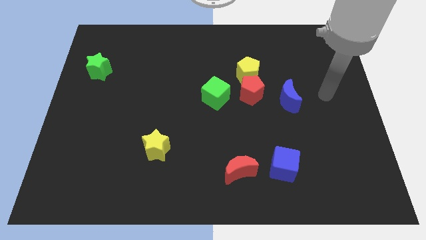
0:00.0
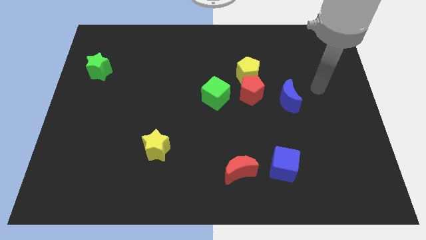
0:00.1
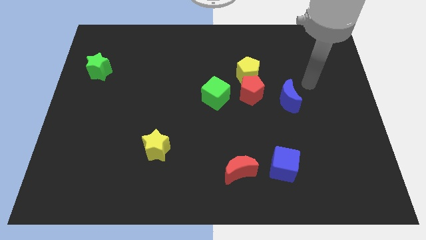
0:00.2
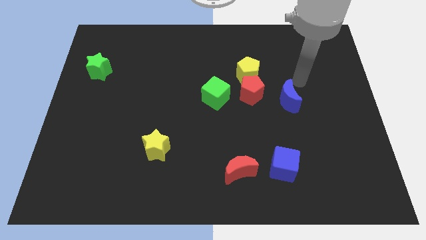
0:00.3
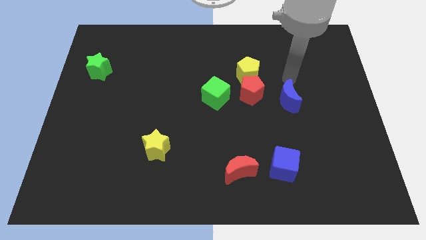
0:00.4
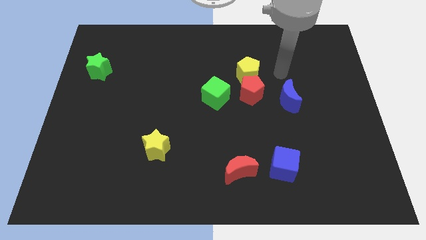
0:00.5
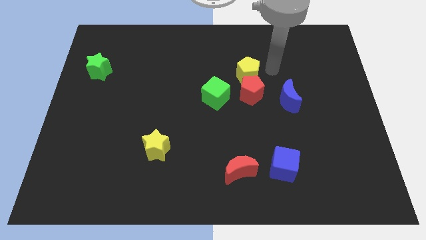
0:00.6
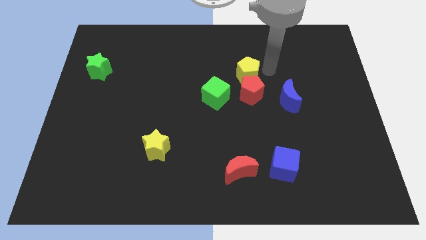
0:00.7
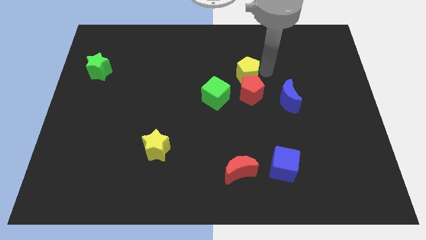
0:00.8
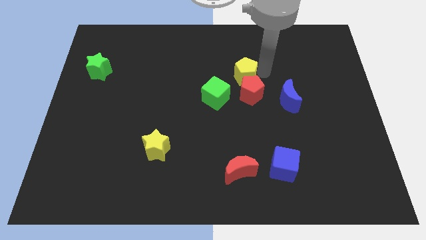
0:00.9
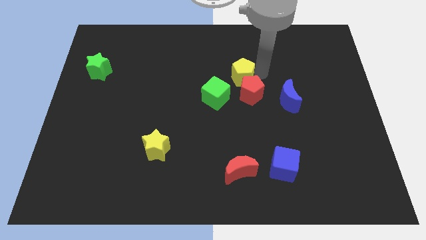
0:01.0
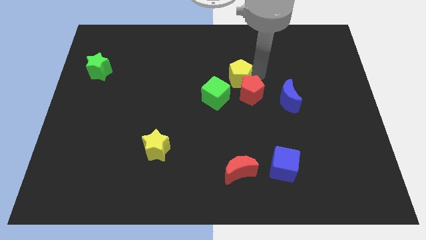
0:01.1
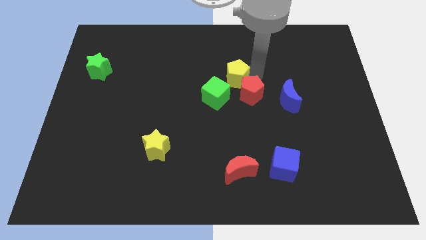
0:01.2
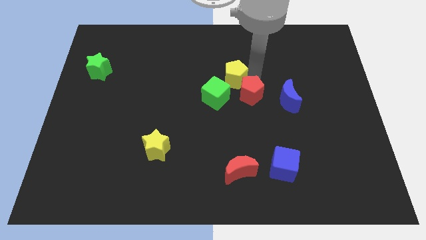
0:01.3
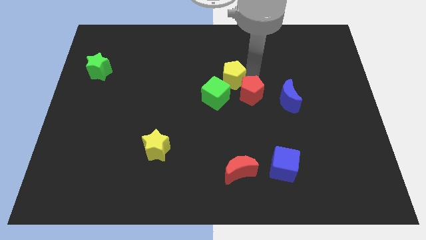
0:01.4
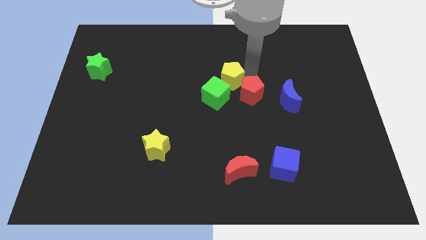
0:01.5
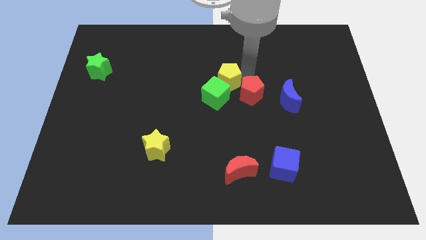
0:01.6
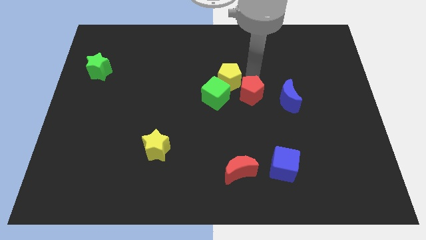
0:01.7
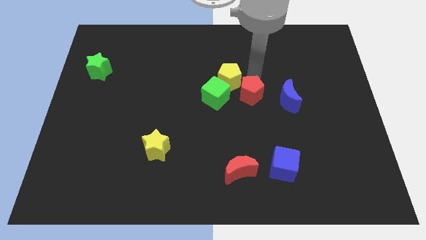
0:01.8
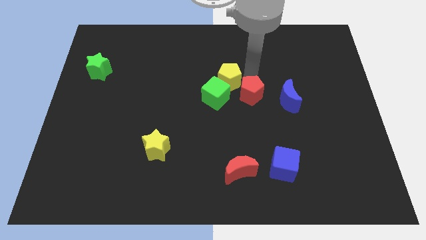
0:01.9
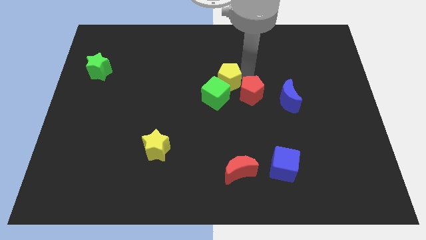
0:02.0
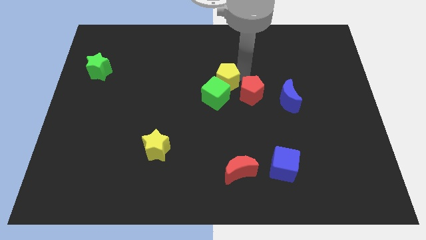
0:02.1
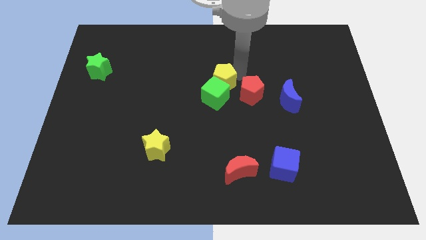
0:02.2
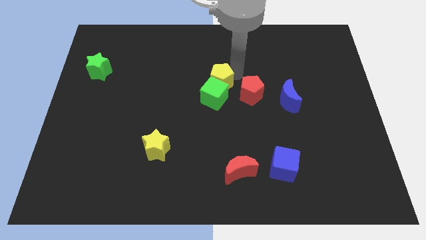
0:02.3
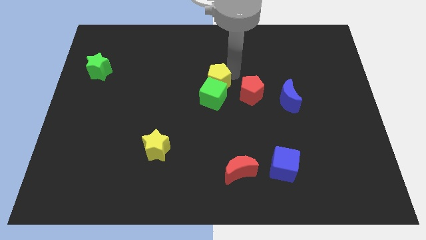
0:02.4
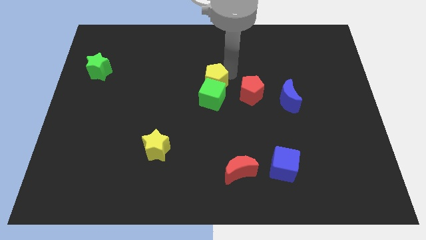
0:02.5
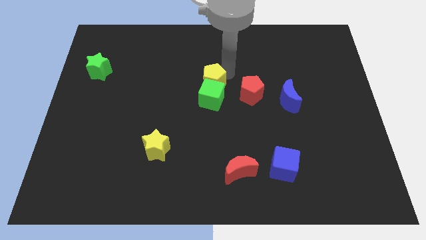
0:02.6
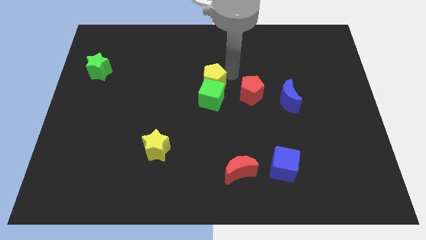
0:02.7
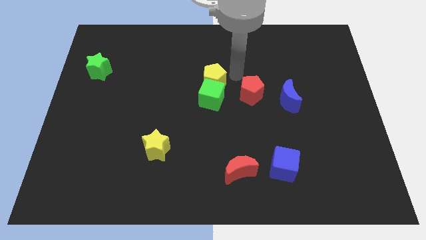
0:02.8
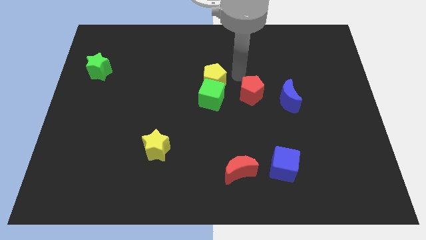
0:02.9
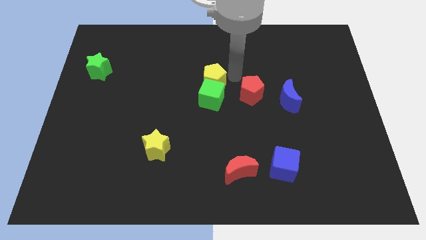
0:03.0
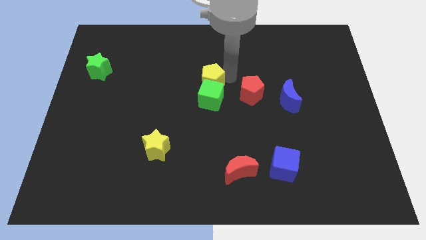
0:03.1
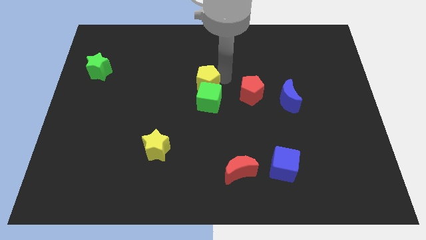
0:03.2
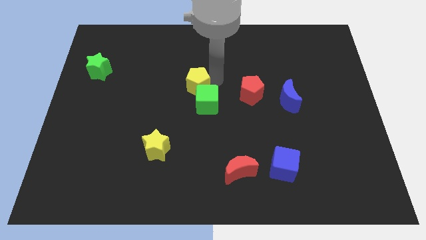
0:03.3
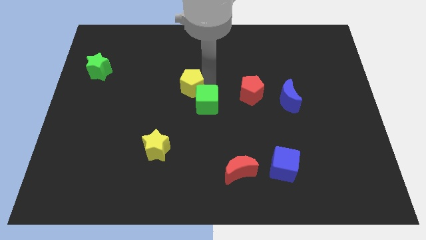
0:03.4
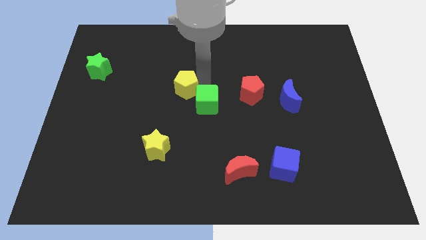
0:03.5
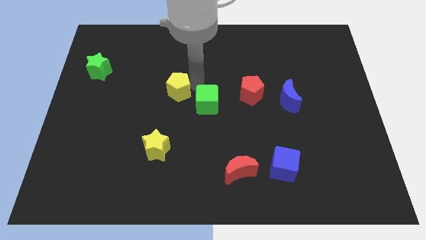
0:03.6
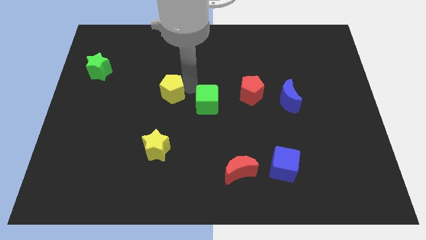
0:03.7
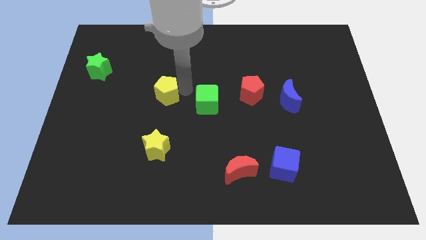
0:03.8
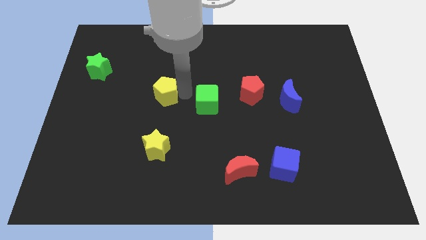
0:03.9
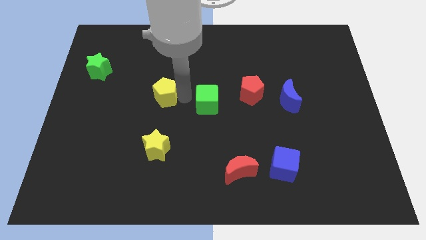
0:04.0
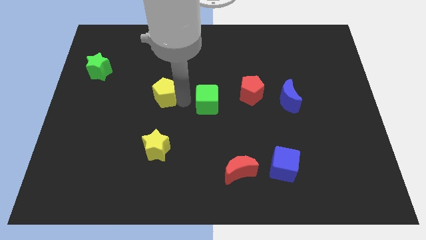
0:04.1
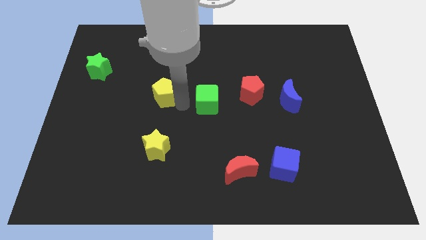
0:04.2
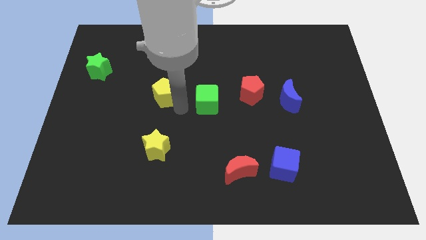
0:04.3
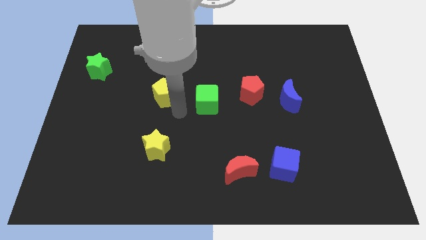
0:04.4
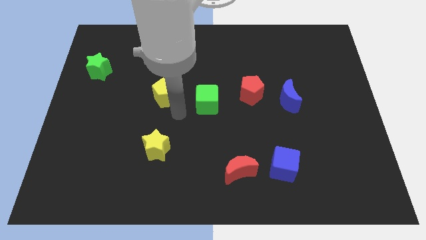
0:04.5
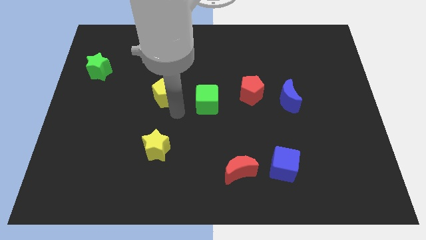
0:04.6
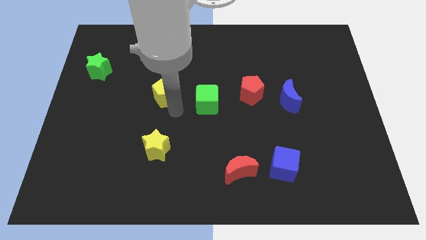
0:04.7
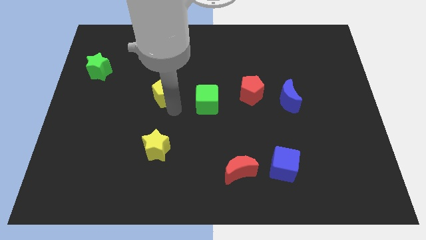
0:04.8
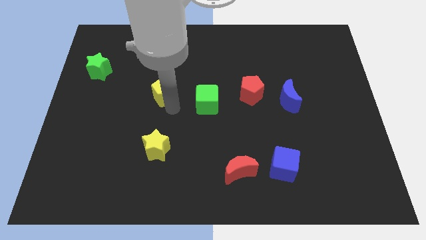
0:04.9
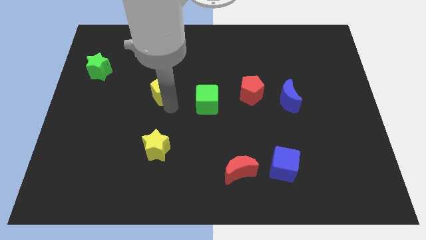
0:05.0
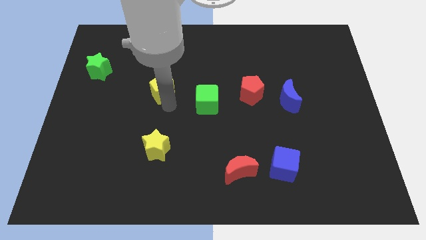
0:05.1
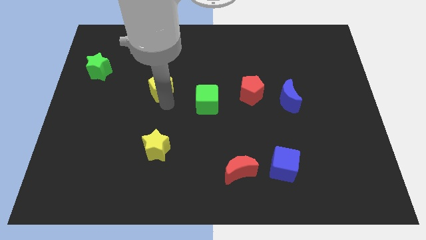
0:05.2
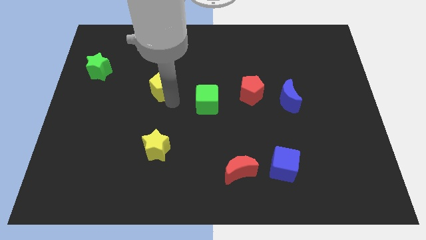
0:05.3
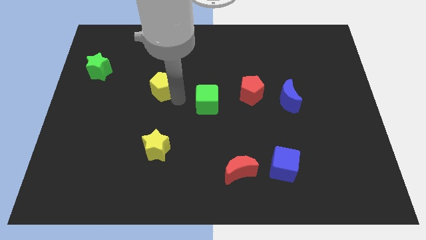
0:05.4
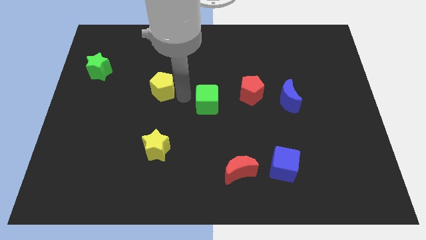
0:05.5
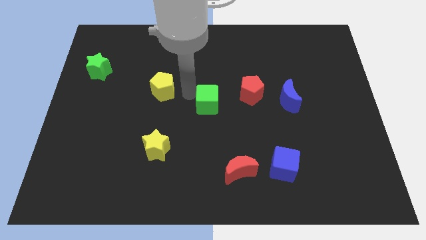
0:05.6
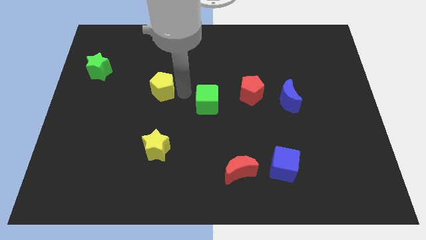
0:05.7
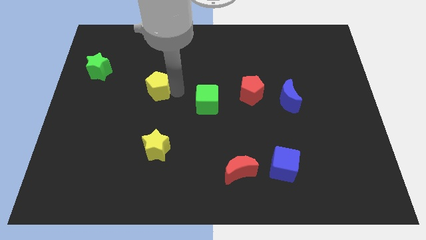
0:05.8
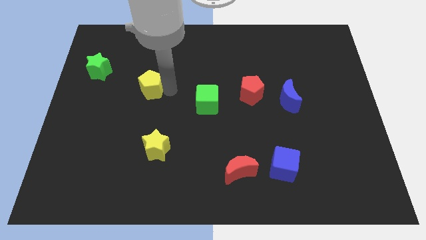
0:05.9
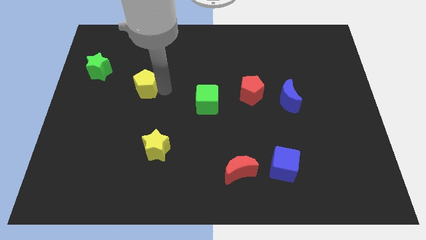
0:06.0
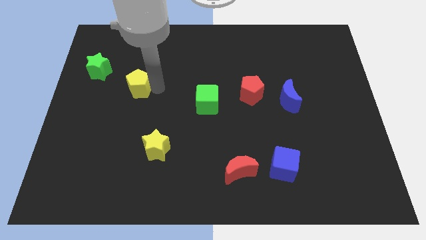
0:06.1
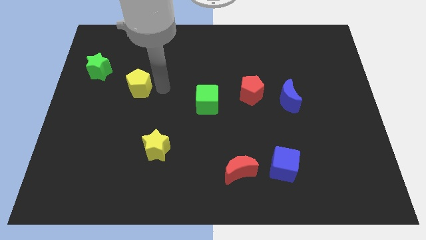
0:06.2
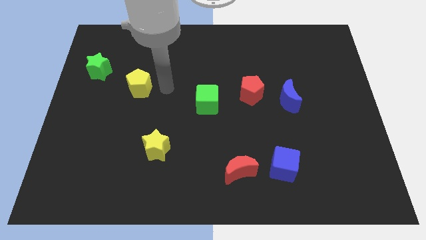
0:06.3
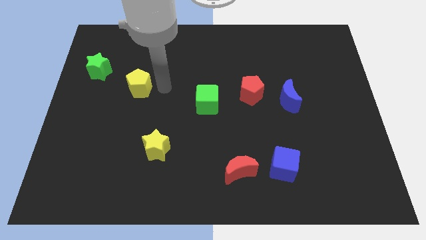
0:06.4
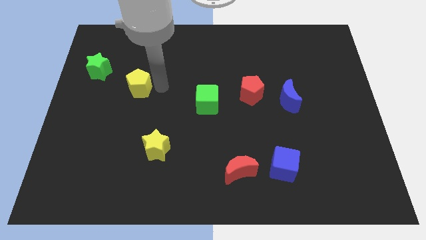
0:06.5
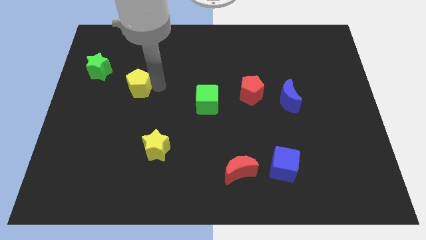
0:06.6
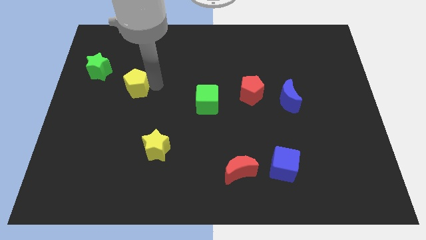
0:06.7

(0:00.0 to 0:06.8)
push the yellow pentagon to the bottom right side of the green star

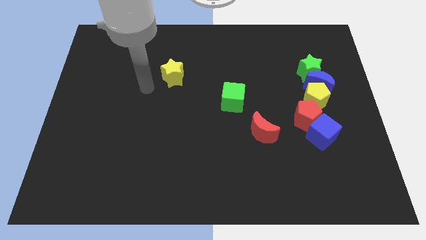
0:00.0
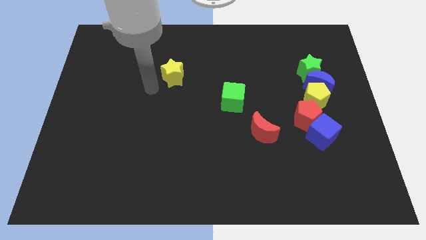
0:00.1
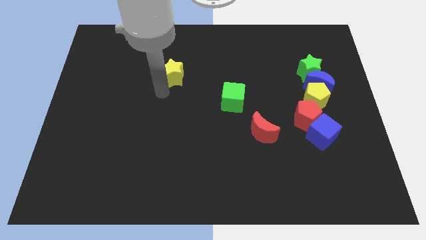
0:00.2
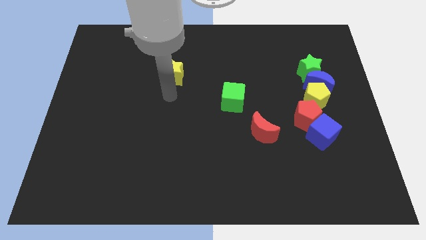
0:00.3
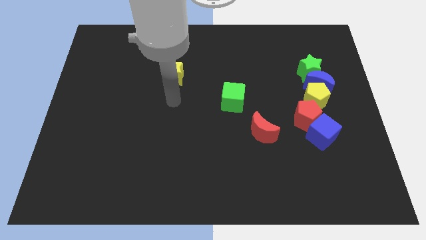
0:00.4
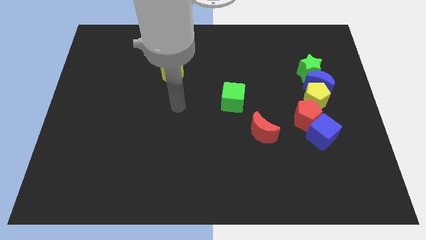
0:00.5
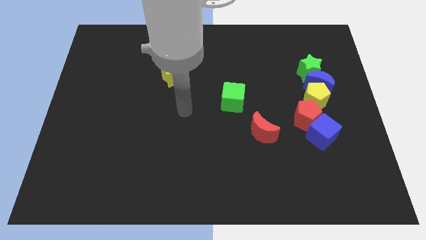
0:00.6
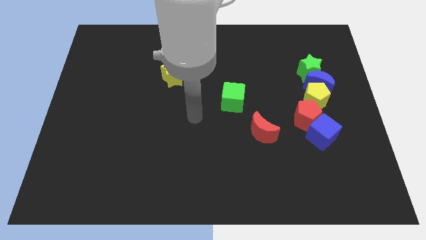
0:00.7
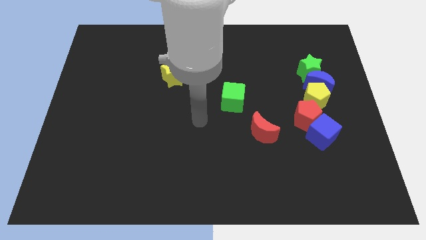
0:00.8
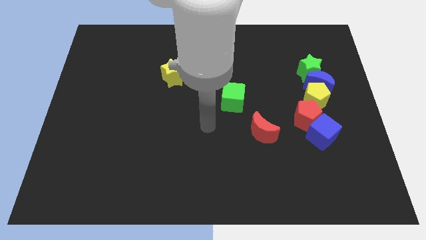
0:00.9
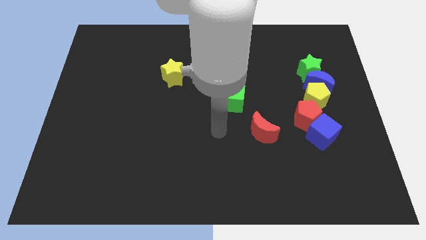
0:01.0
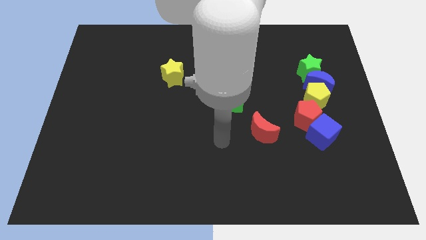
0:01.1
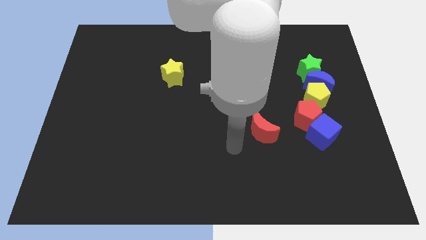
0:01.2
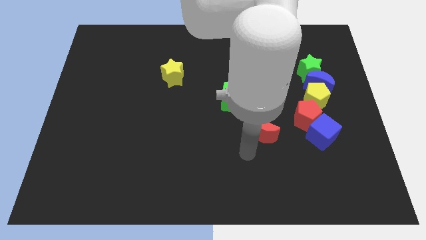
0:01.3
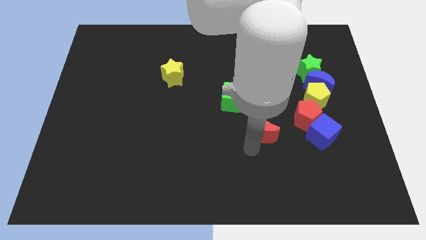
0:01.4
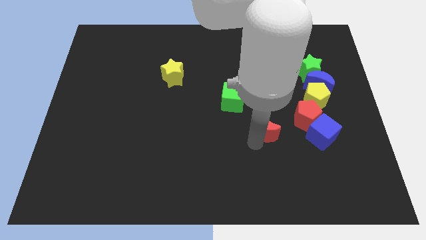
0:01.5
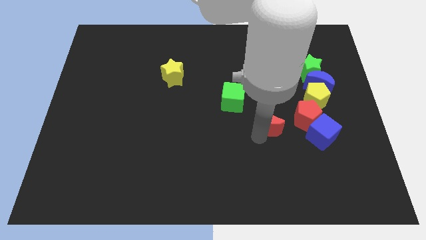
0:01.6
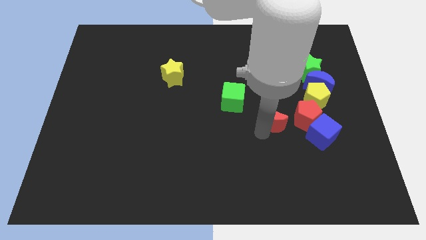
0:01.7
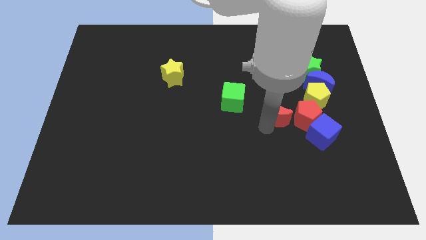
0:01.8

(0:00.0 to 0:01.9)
put the red moon diagonally up and to the left of the red pentagon
